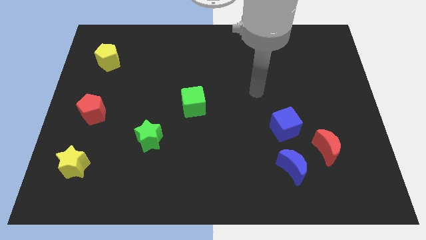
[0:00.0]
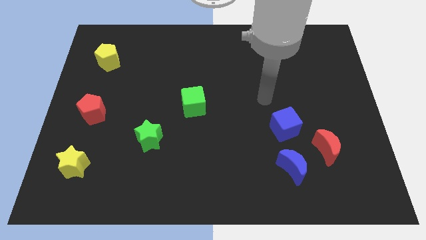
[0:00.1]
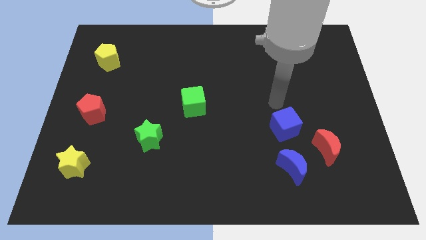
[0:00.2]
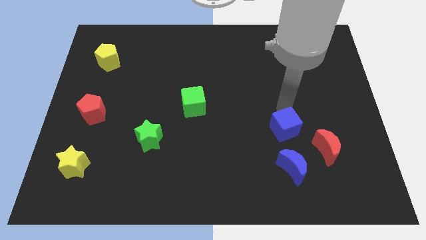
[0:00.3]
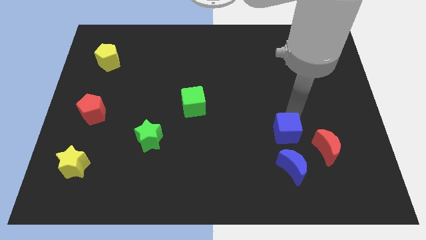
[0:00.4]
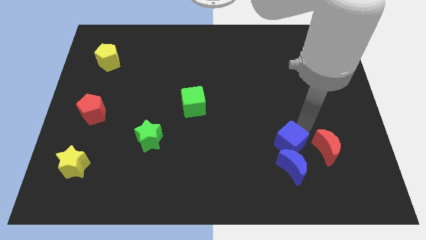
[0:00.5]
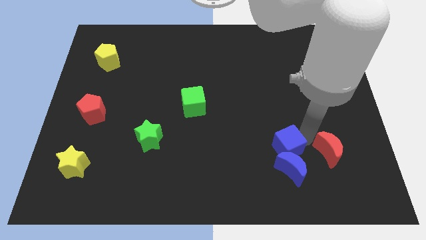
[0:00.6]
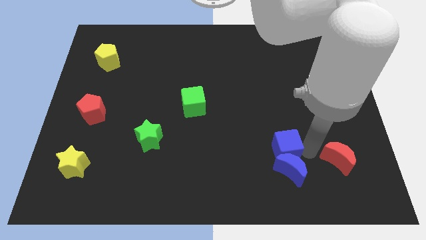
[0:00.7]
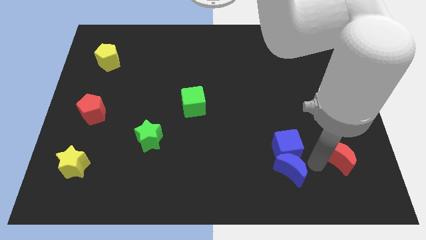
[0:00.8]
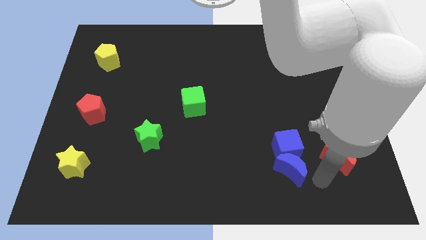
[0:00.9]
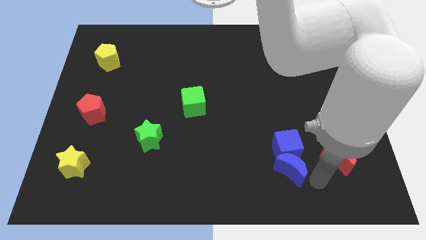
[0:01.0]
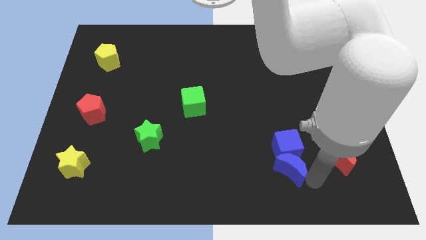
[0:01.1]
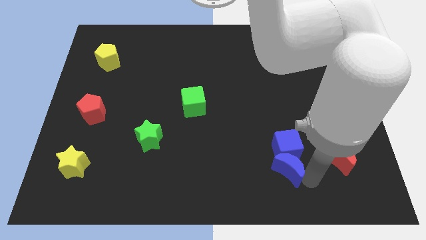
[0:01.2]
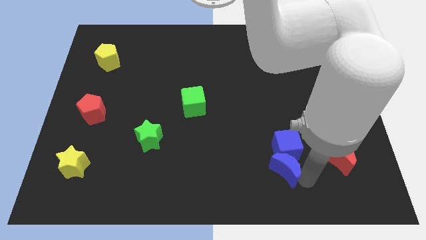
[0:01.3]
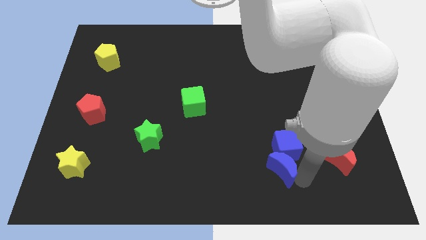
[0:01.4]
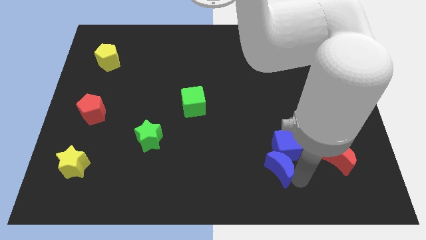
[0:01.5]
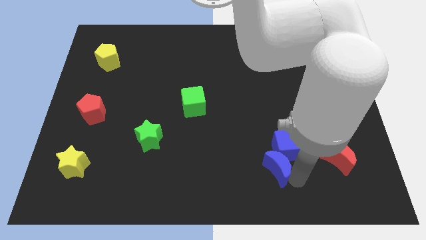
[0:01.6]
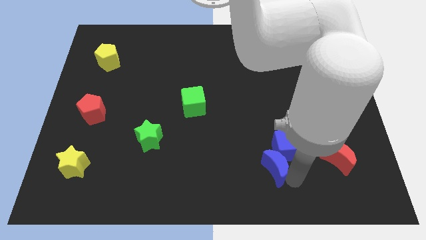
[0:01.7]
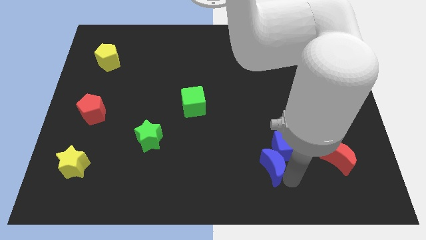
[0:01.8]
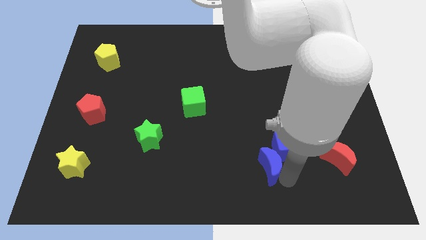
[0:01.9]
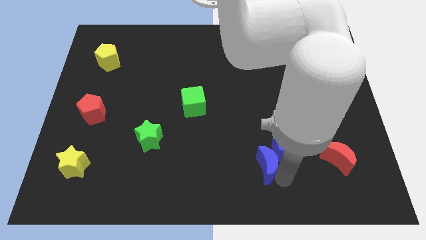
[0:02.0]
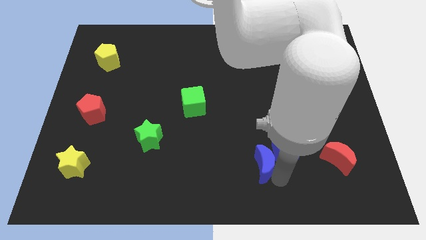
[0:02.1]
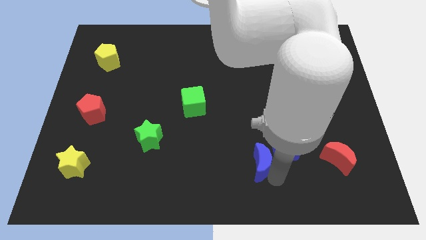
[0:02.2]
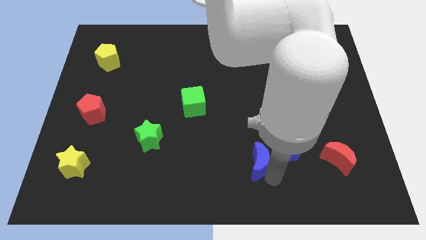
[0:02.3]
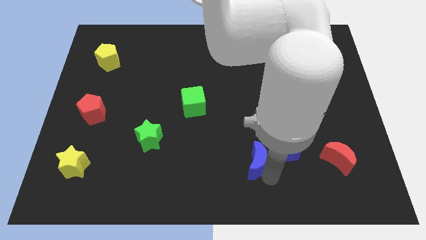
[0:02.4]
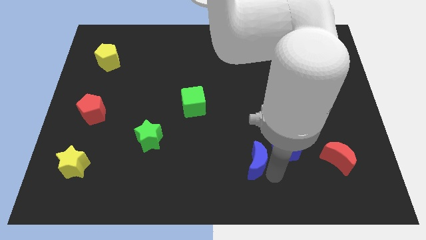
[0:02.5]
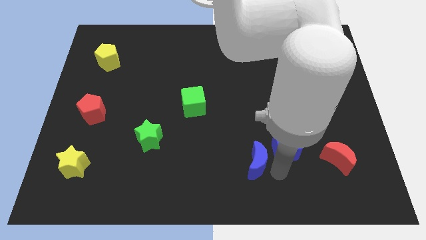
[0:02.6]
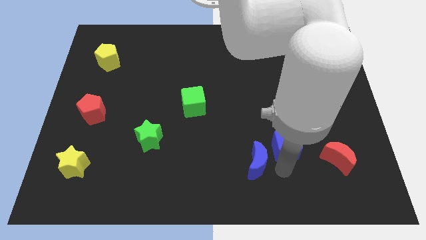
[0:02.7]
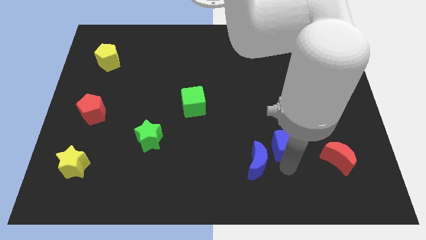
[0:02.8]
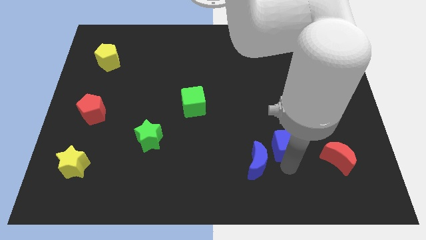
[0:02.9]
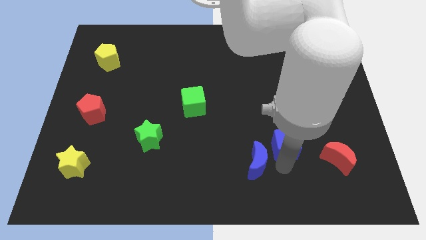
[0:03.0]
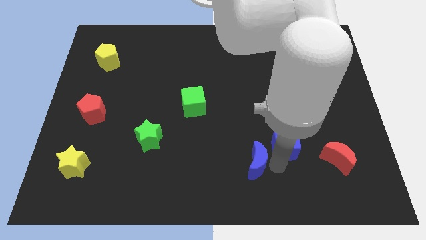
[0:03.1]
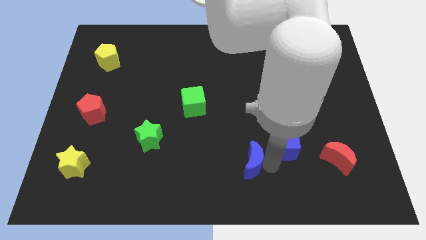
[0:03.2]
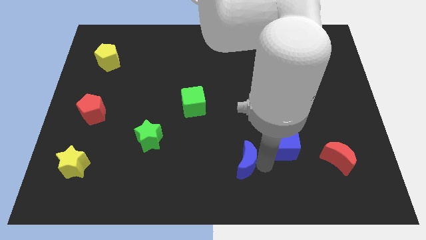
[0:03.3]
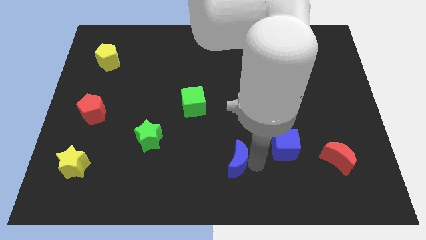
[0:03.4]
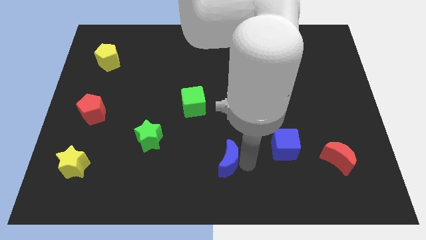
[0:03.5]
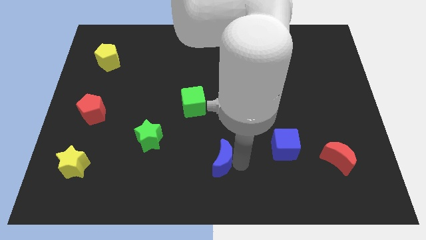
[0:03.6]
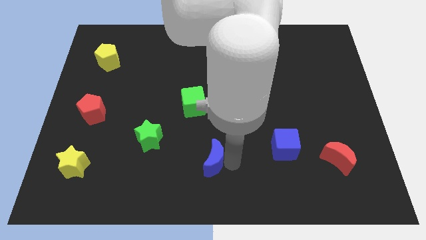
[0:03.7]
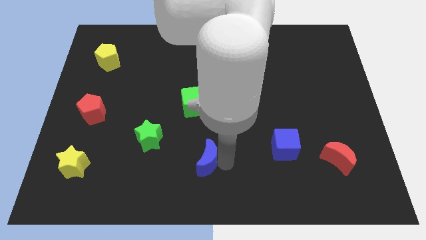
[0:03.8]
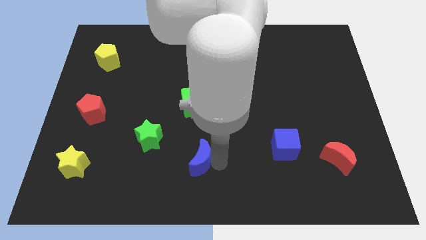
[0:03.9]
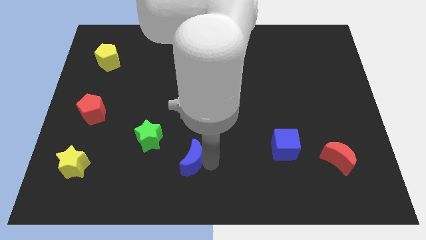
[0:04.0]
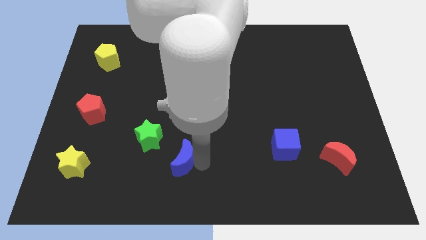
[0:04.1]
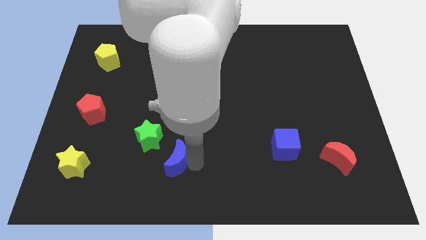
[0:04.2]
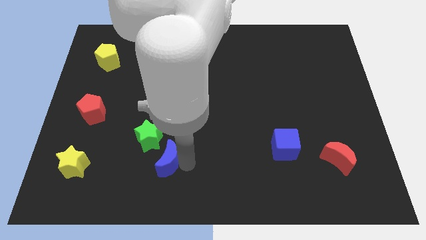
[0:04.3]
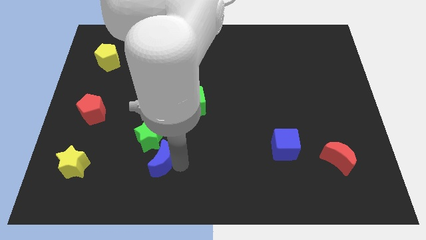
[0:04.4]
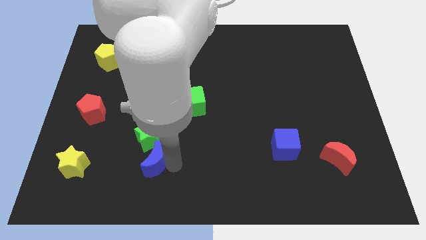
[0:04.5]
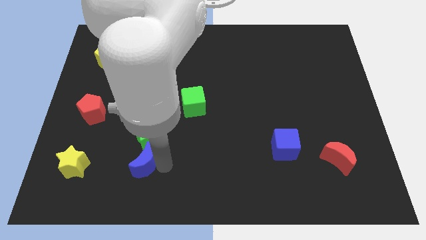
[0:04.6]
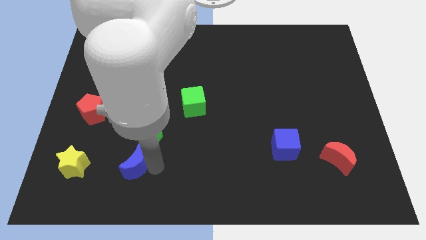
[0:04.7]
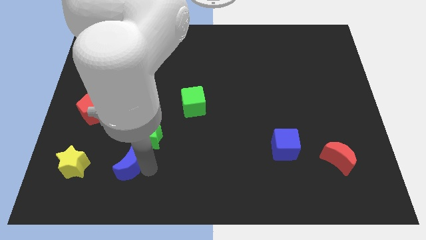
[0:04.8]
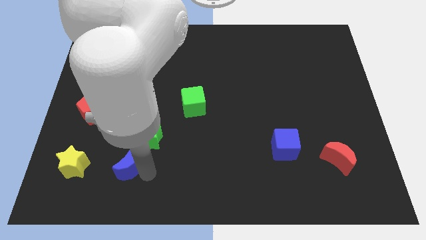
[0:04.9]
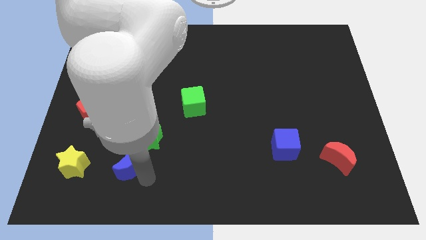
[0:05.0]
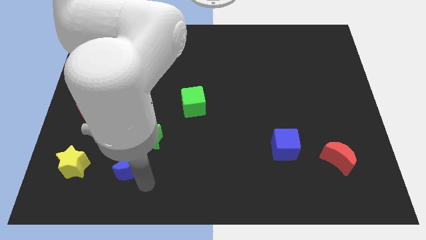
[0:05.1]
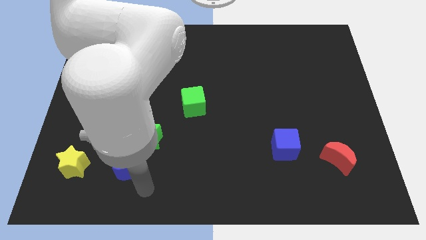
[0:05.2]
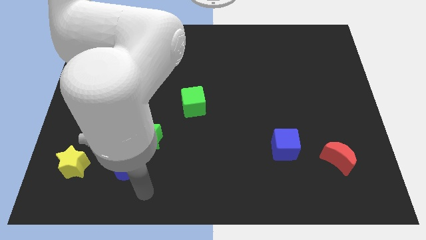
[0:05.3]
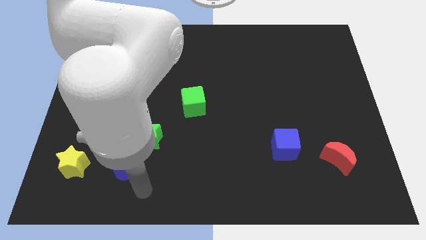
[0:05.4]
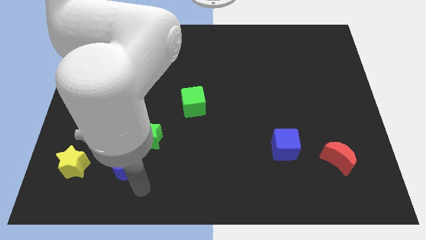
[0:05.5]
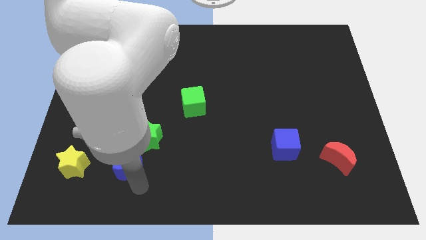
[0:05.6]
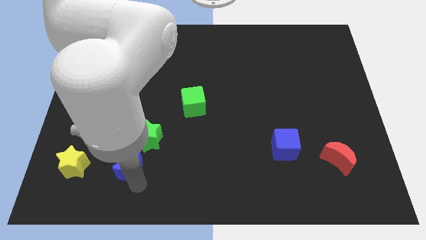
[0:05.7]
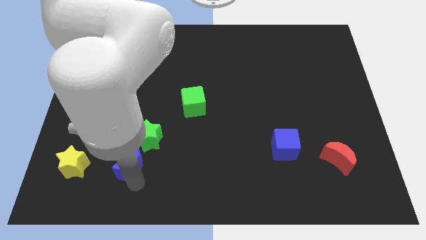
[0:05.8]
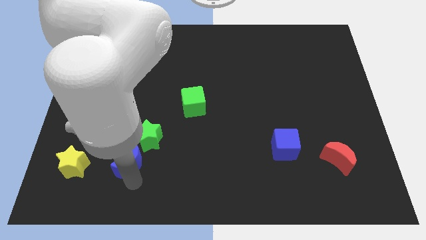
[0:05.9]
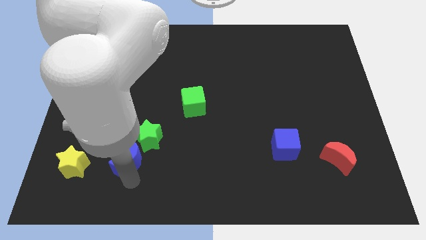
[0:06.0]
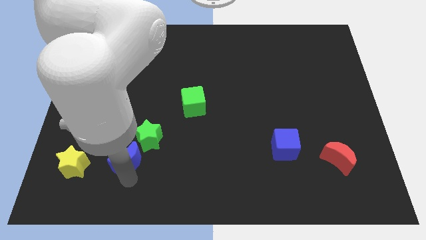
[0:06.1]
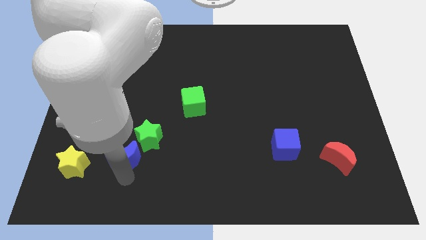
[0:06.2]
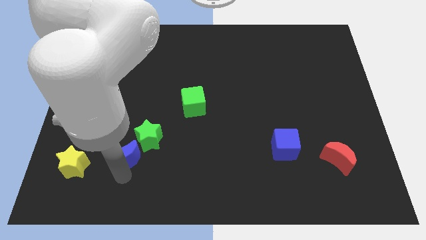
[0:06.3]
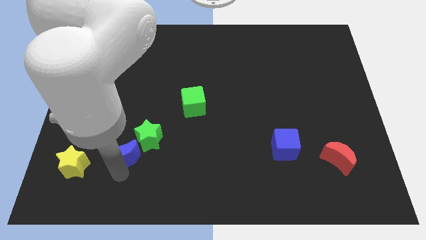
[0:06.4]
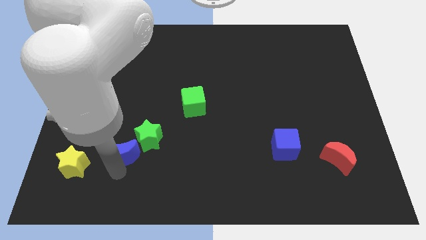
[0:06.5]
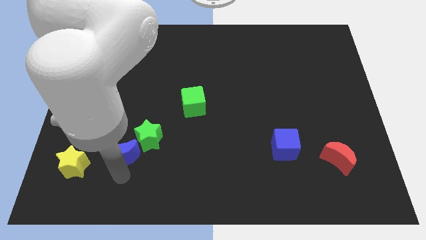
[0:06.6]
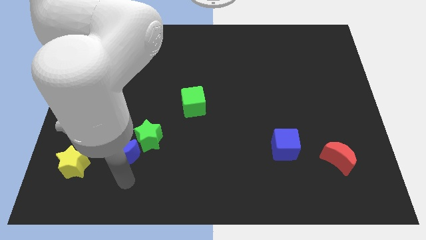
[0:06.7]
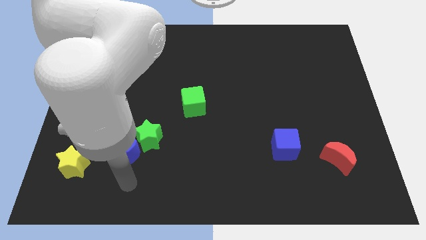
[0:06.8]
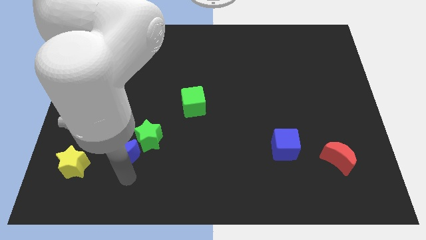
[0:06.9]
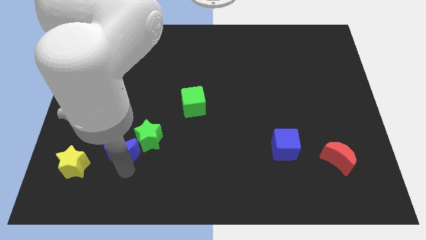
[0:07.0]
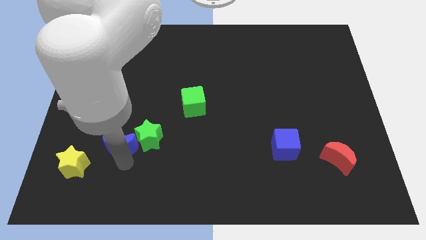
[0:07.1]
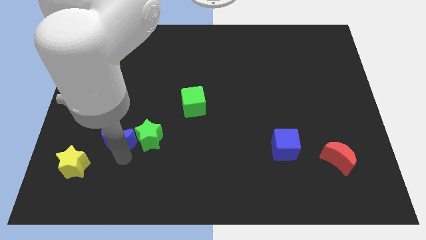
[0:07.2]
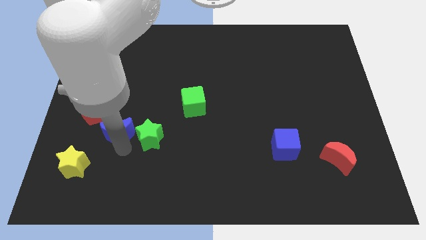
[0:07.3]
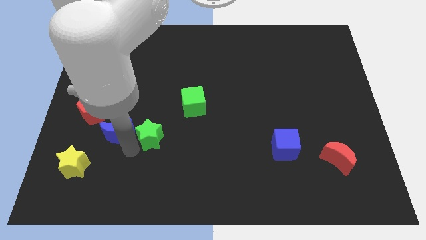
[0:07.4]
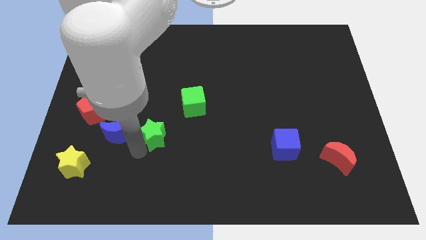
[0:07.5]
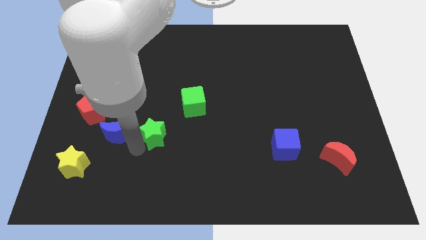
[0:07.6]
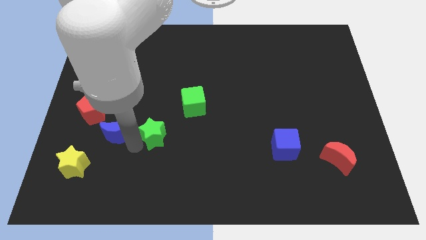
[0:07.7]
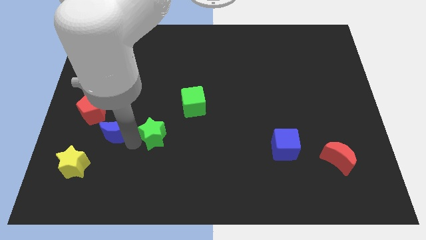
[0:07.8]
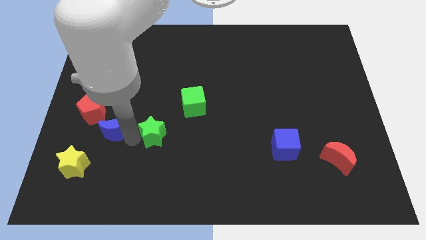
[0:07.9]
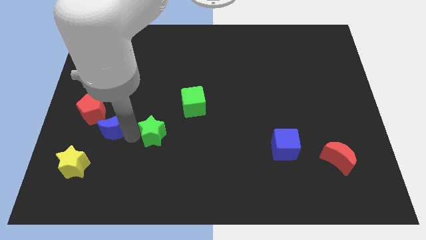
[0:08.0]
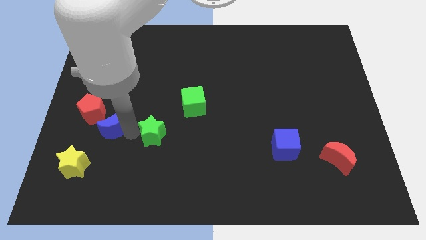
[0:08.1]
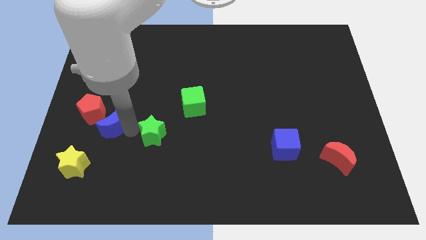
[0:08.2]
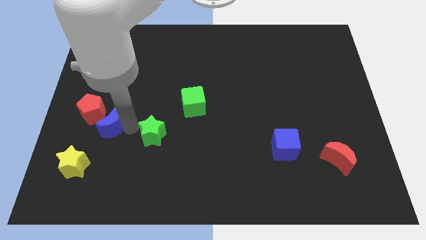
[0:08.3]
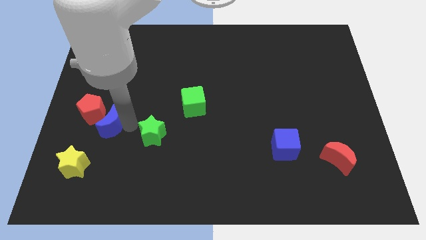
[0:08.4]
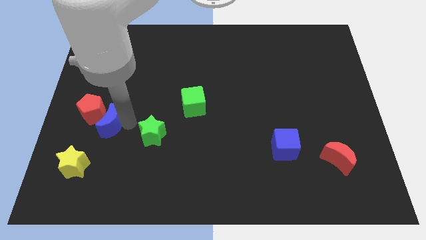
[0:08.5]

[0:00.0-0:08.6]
move the blue moon to the red pentagon
